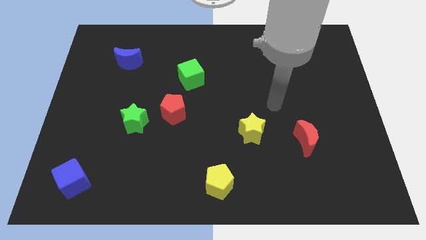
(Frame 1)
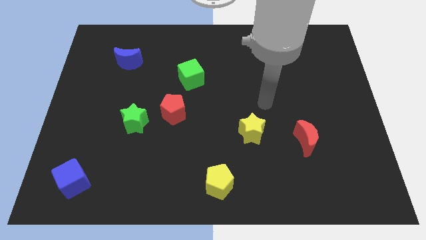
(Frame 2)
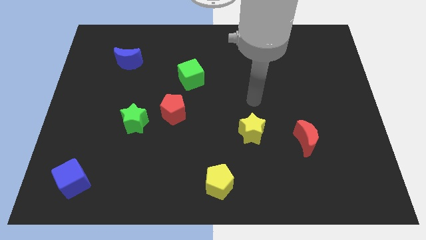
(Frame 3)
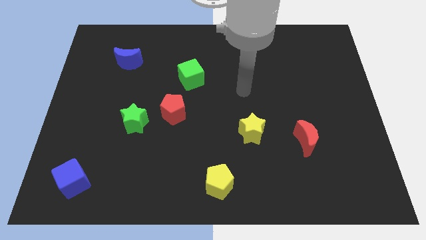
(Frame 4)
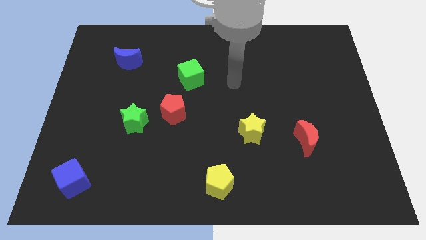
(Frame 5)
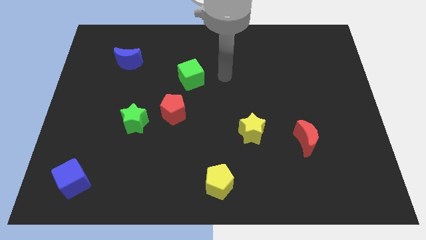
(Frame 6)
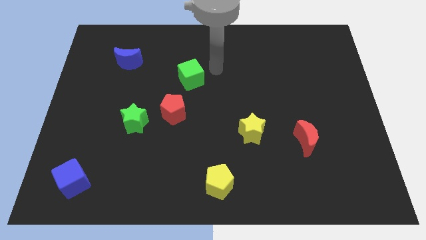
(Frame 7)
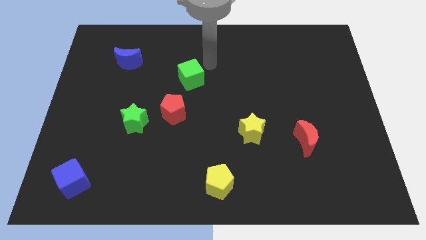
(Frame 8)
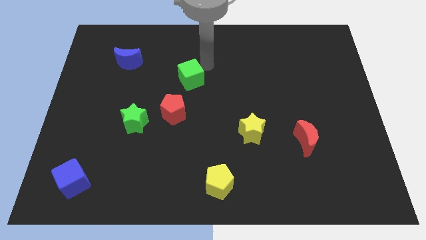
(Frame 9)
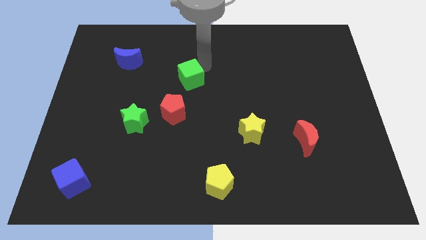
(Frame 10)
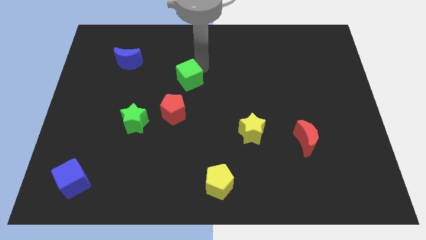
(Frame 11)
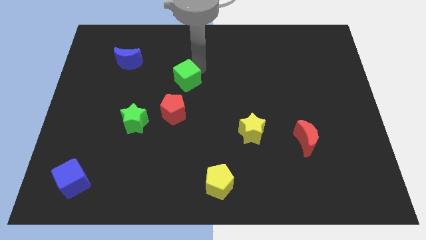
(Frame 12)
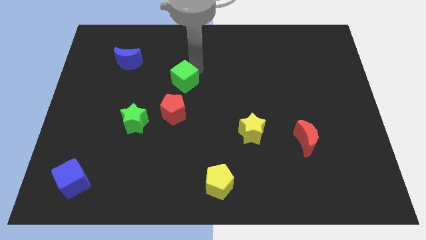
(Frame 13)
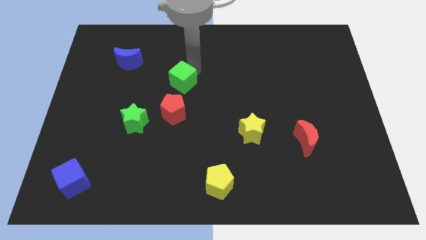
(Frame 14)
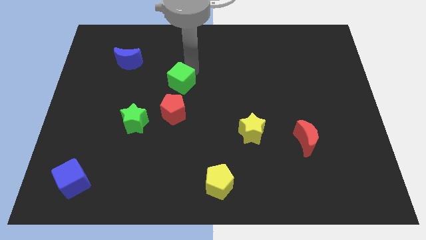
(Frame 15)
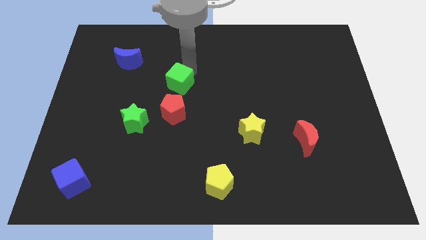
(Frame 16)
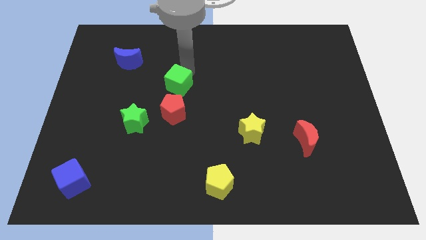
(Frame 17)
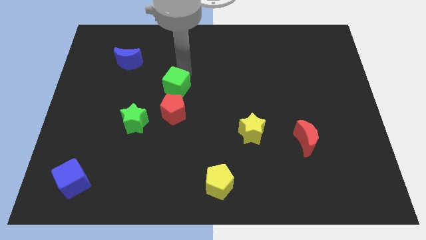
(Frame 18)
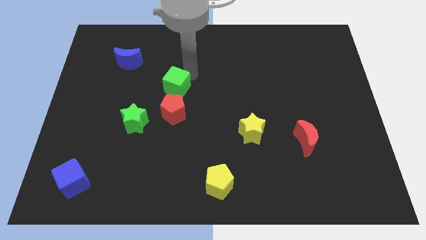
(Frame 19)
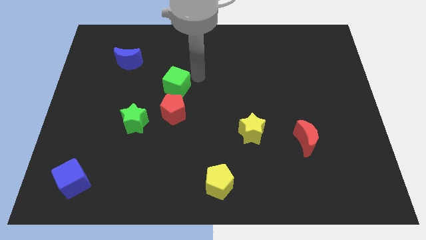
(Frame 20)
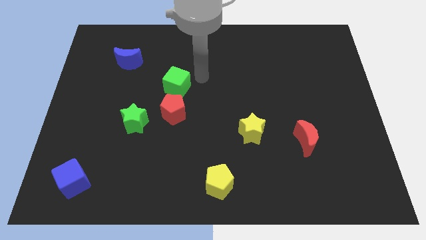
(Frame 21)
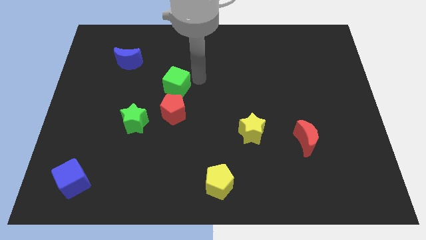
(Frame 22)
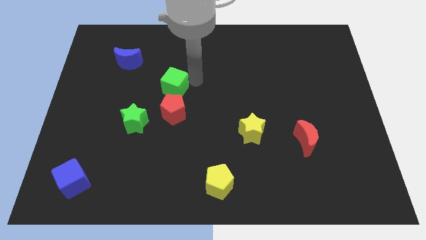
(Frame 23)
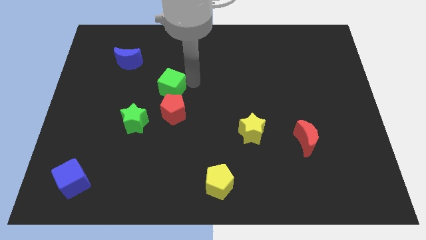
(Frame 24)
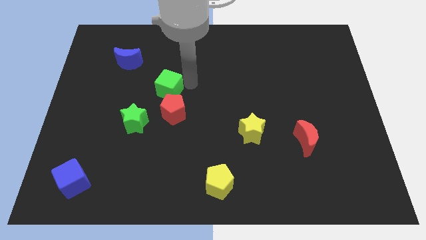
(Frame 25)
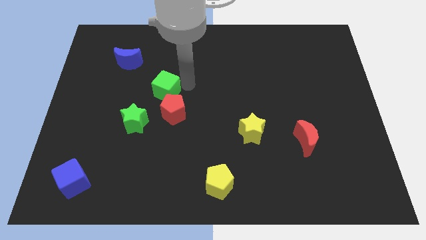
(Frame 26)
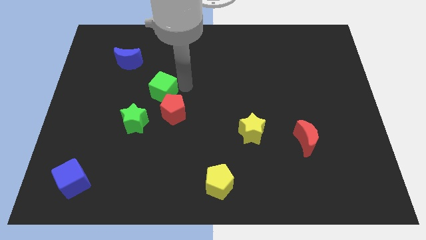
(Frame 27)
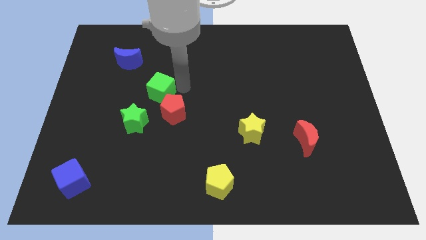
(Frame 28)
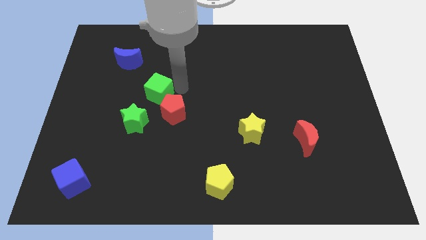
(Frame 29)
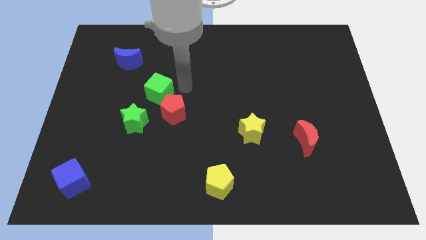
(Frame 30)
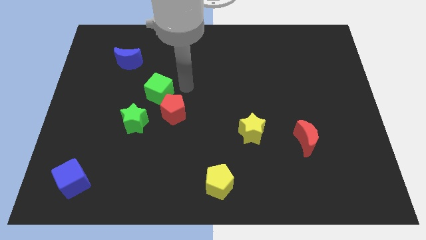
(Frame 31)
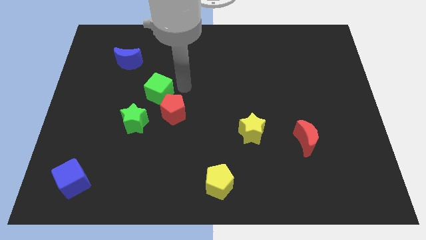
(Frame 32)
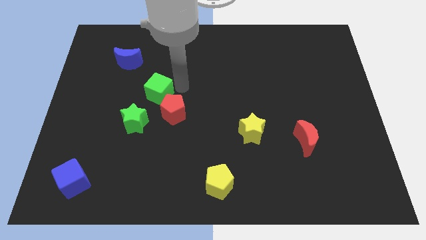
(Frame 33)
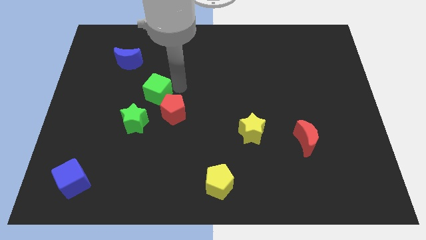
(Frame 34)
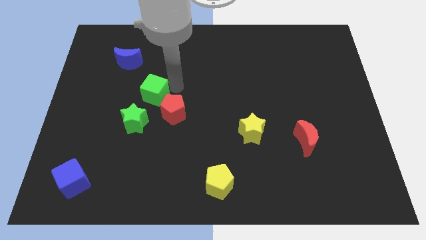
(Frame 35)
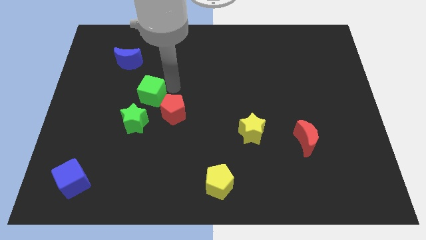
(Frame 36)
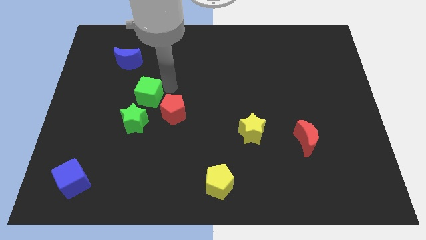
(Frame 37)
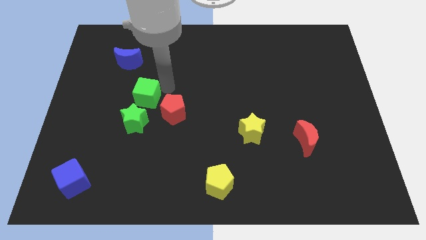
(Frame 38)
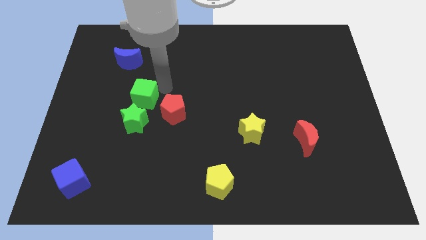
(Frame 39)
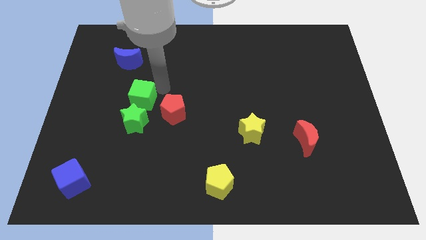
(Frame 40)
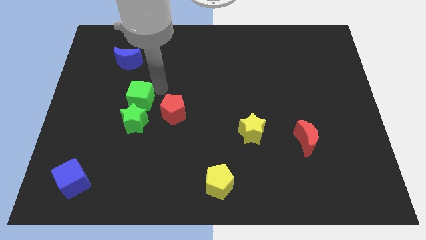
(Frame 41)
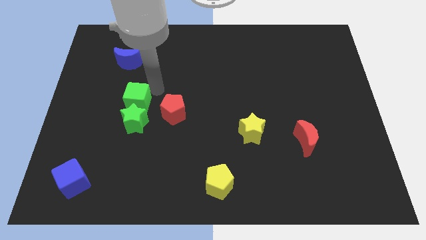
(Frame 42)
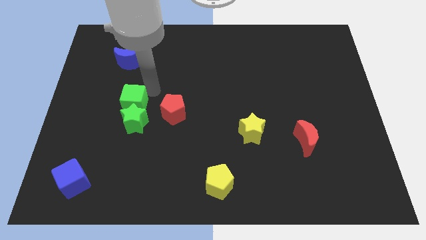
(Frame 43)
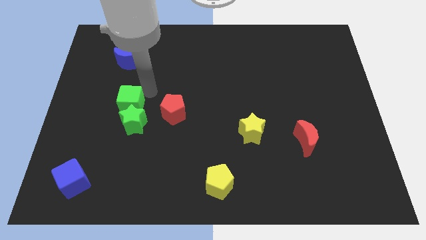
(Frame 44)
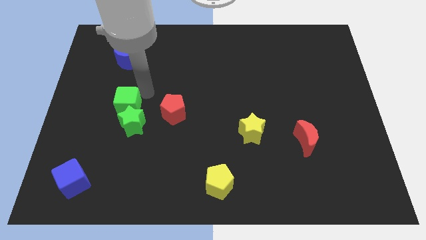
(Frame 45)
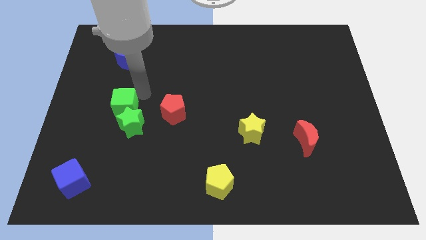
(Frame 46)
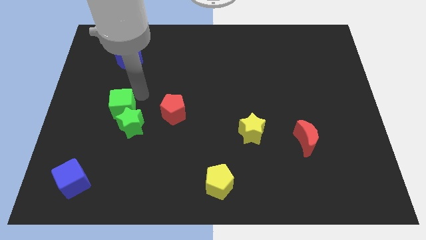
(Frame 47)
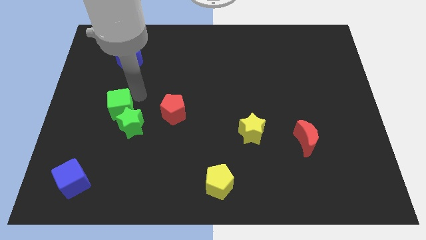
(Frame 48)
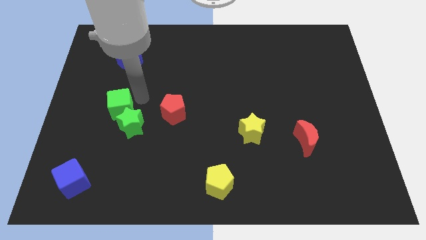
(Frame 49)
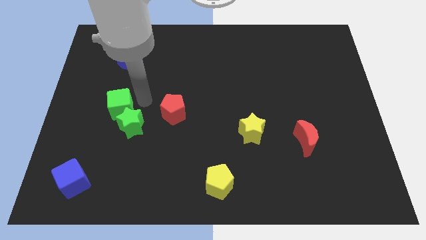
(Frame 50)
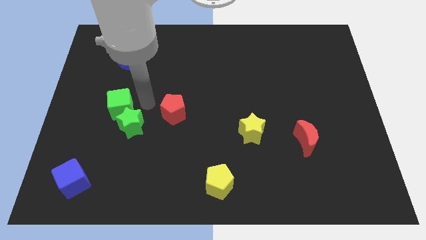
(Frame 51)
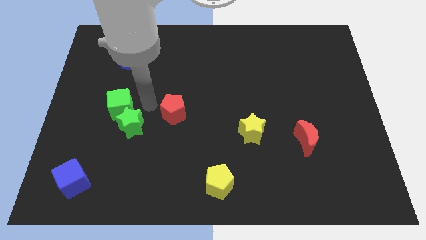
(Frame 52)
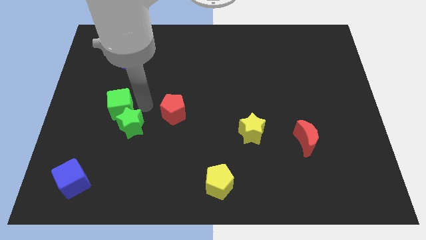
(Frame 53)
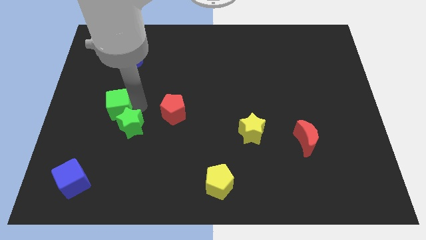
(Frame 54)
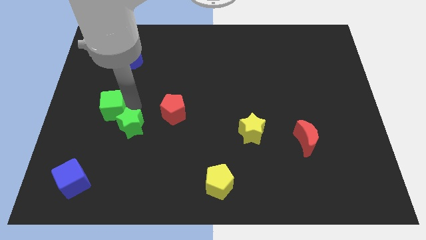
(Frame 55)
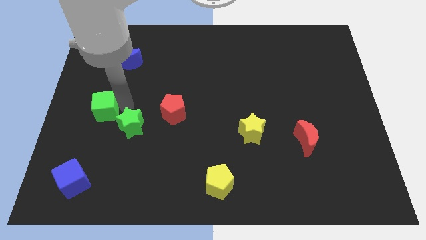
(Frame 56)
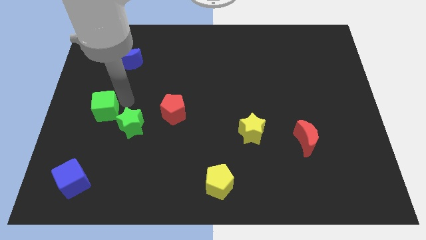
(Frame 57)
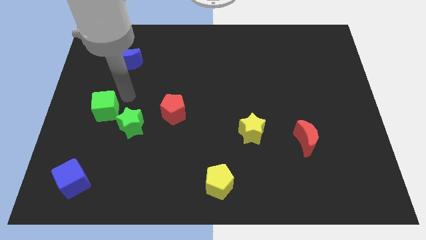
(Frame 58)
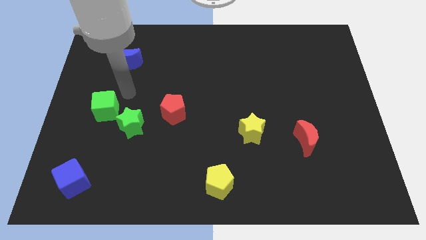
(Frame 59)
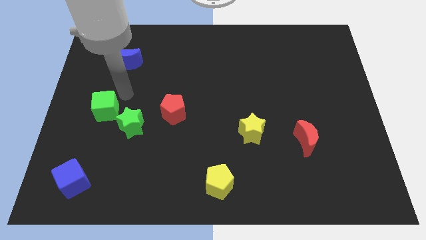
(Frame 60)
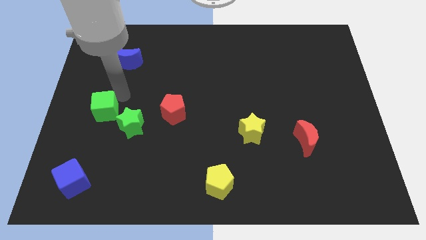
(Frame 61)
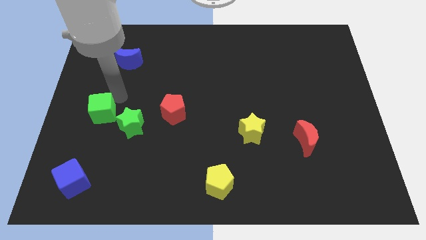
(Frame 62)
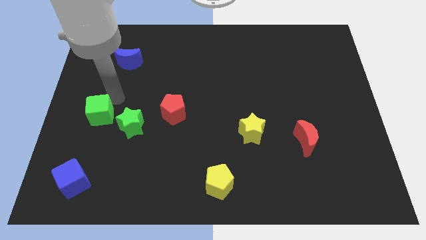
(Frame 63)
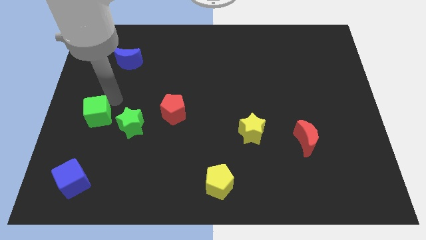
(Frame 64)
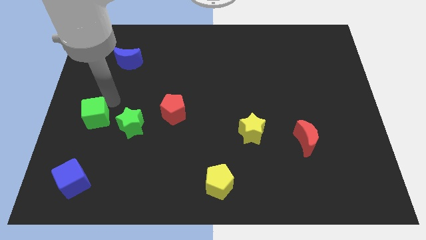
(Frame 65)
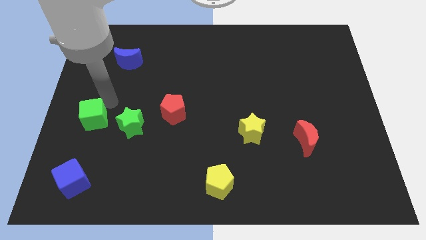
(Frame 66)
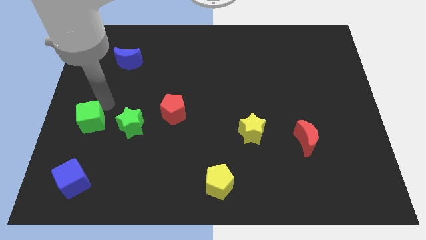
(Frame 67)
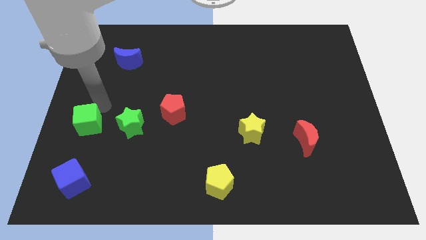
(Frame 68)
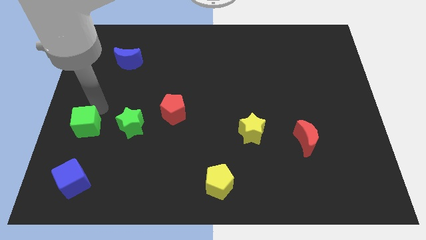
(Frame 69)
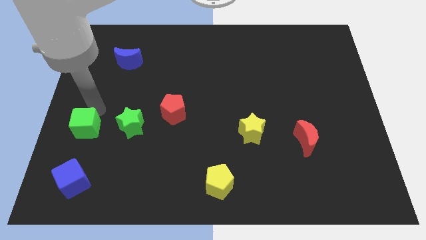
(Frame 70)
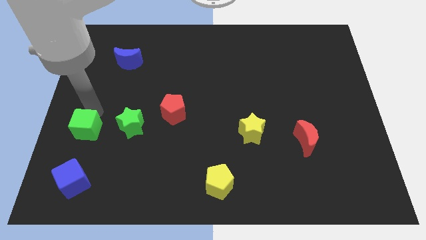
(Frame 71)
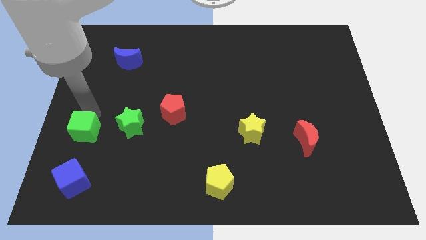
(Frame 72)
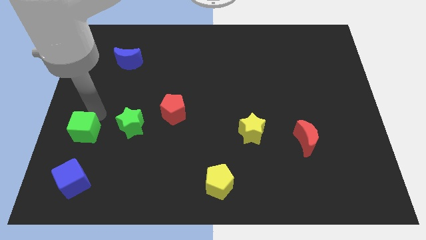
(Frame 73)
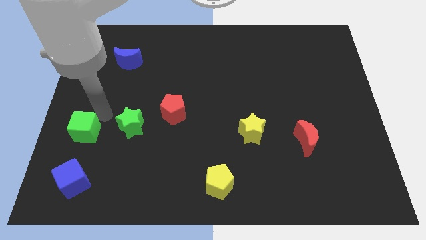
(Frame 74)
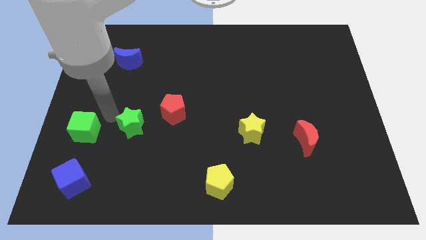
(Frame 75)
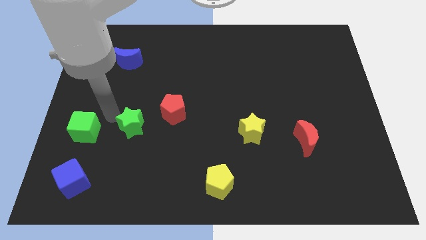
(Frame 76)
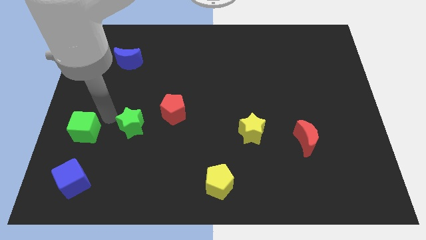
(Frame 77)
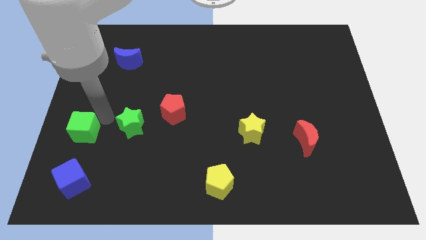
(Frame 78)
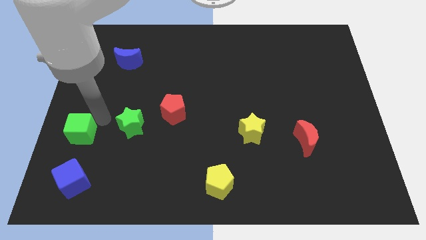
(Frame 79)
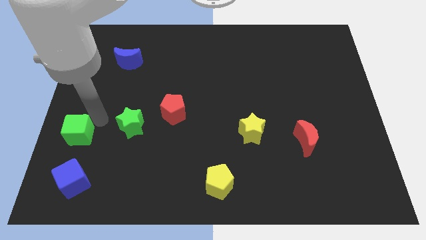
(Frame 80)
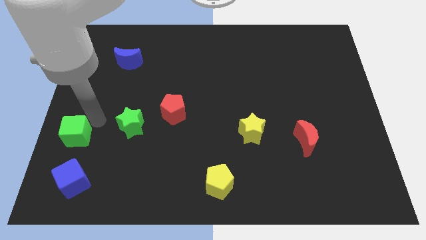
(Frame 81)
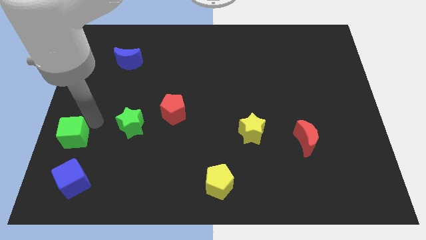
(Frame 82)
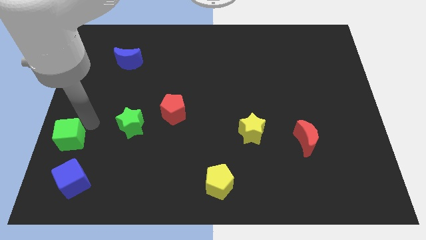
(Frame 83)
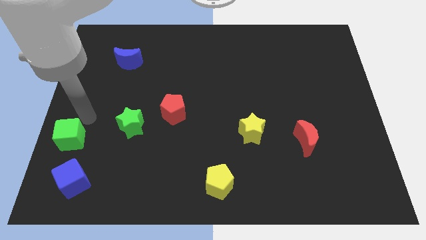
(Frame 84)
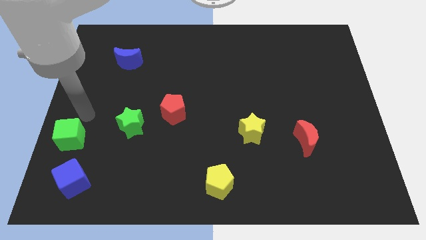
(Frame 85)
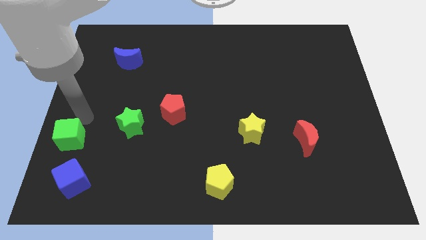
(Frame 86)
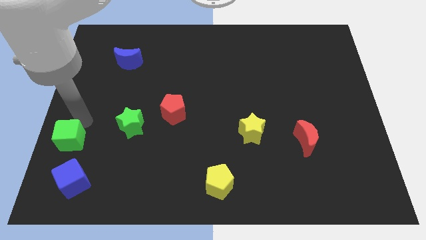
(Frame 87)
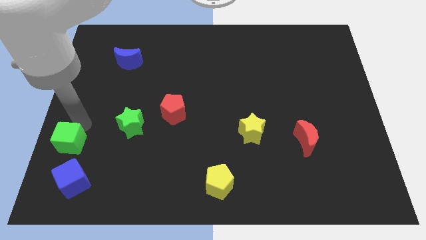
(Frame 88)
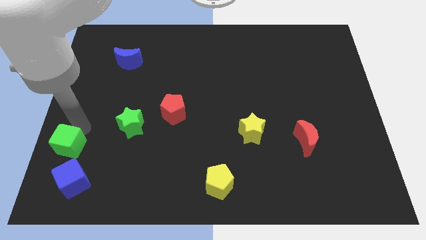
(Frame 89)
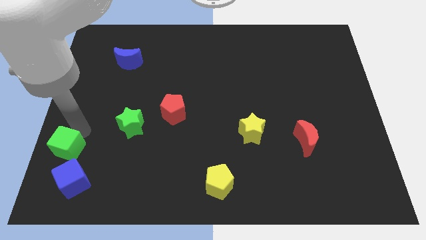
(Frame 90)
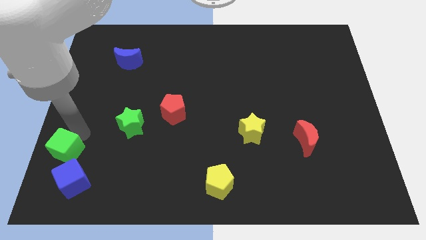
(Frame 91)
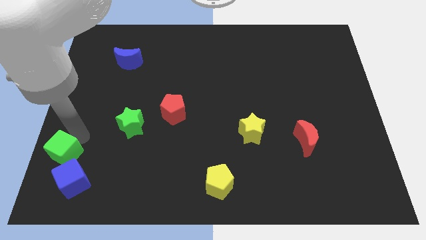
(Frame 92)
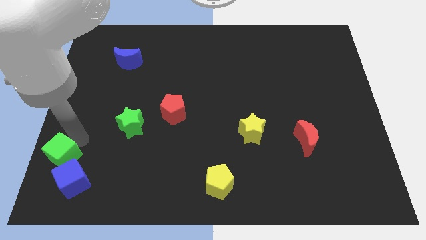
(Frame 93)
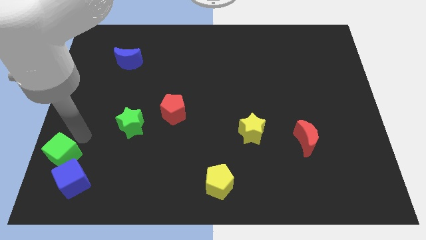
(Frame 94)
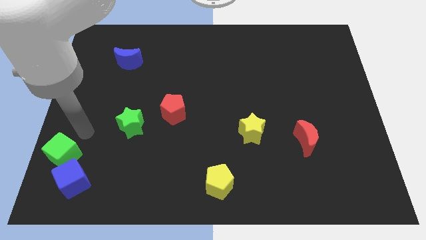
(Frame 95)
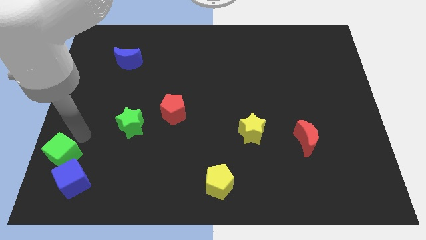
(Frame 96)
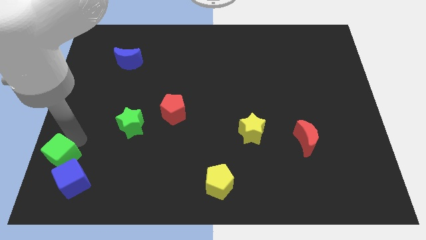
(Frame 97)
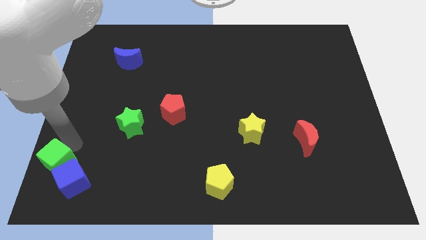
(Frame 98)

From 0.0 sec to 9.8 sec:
slide the green cube to the lower left corner
